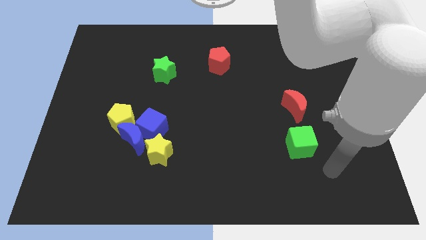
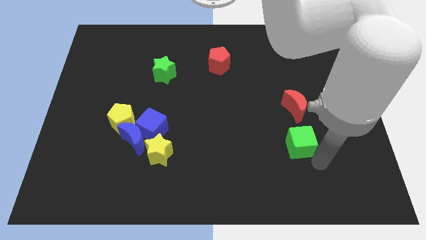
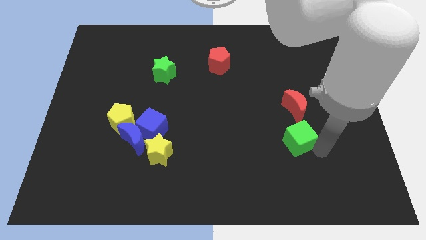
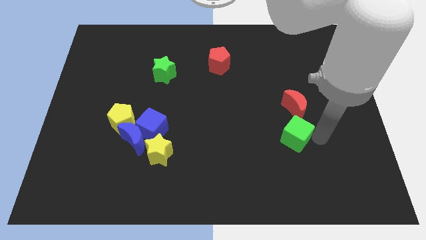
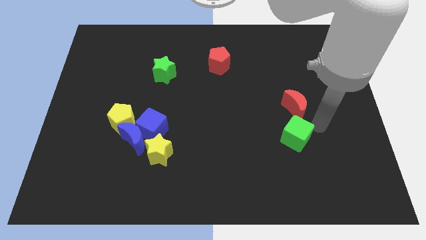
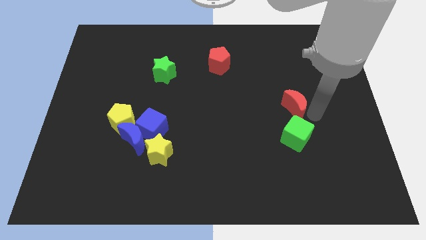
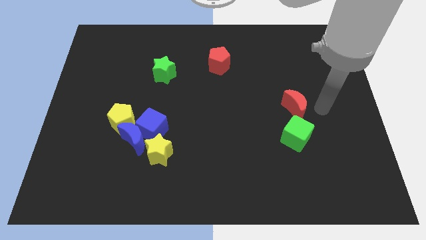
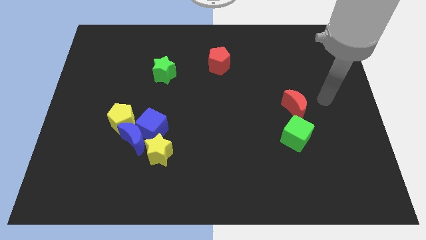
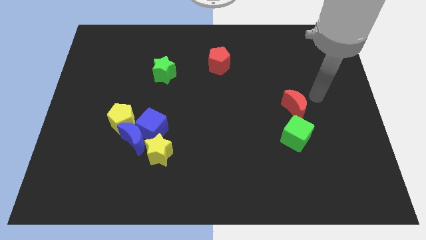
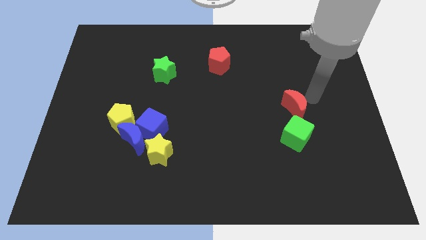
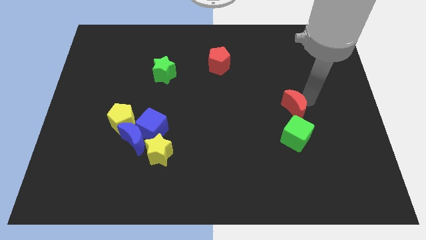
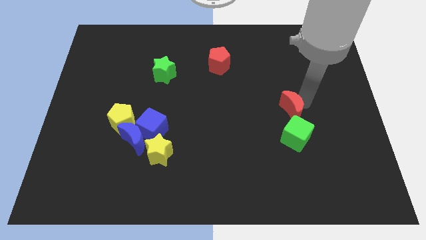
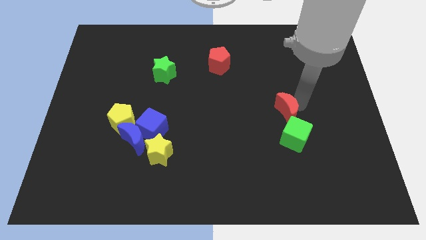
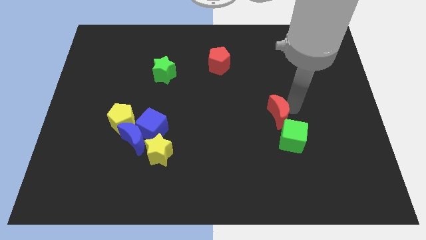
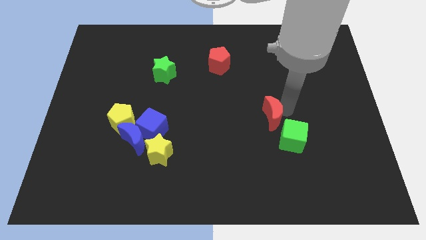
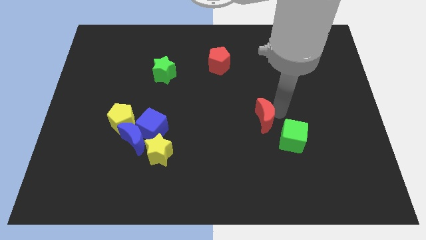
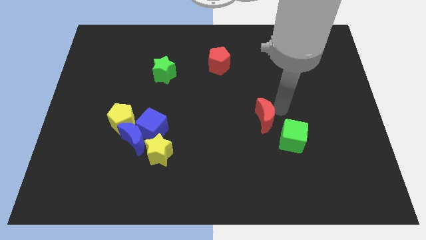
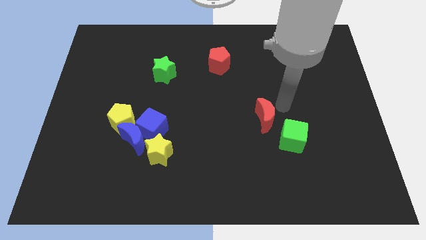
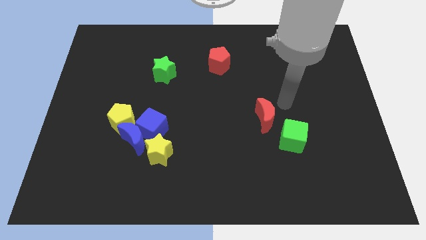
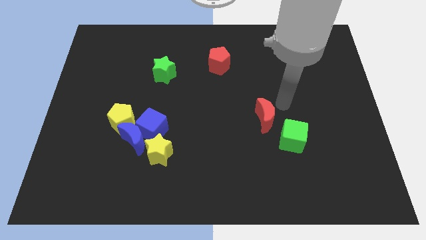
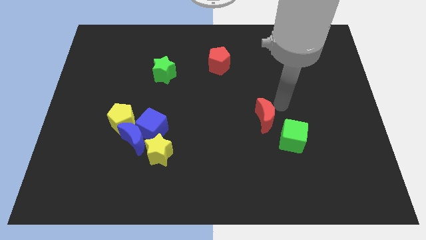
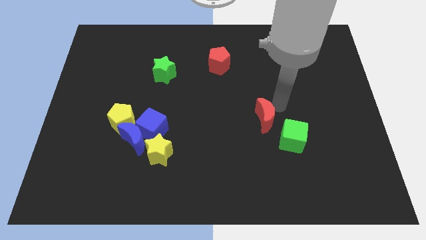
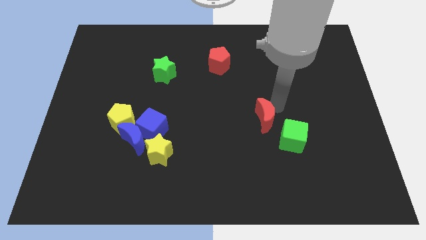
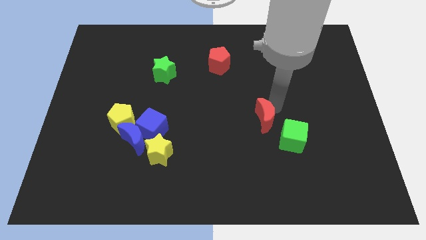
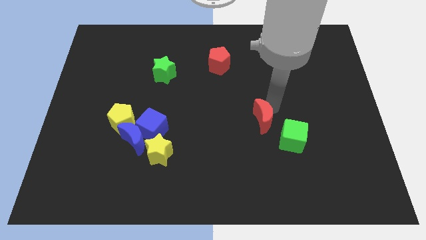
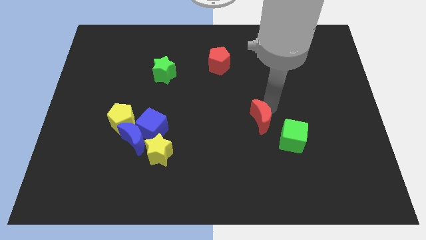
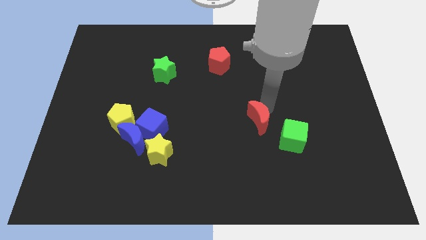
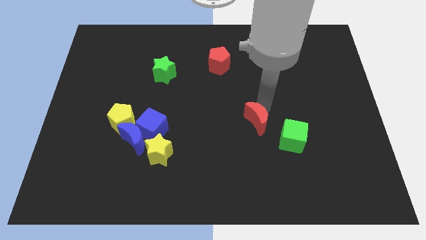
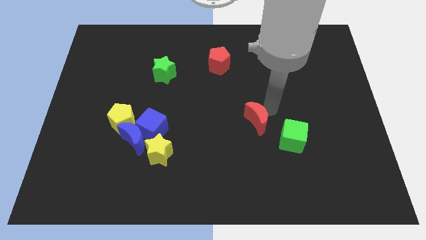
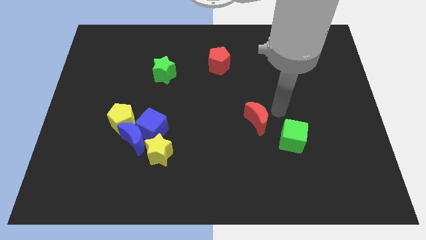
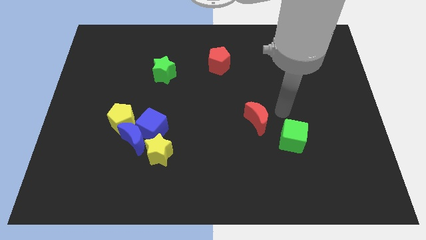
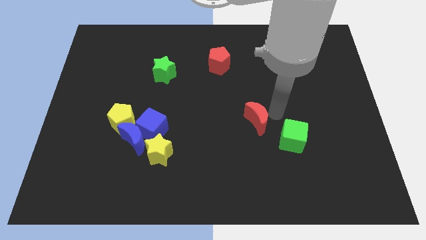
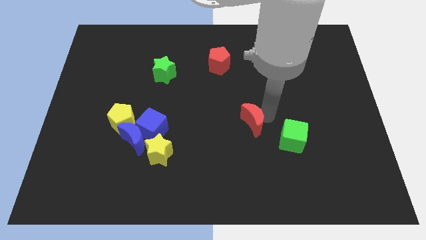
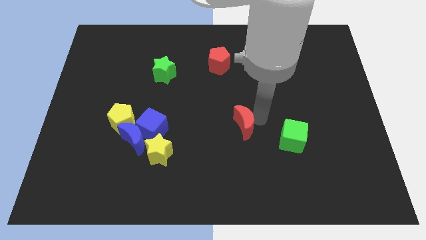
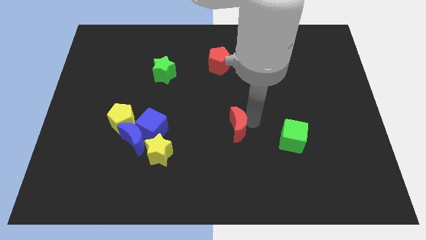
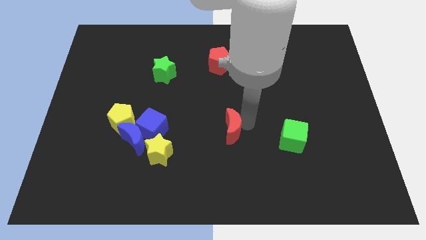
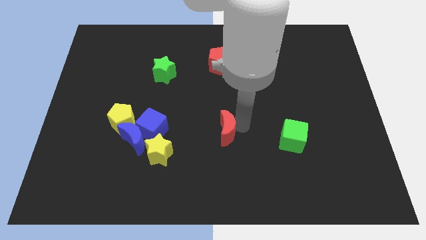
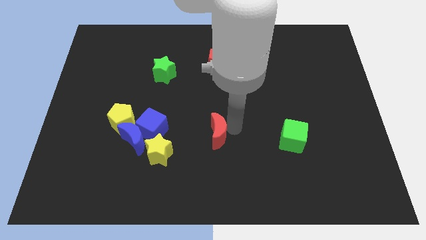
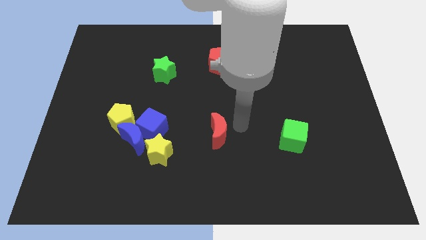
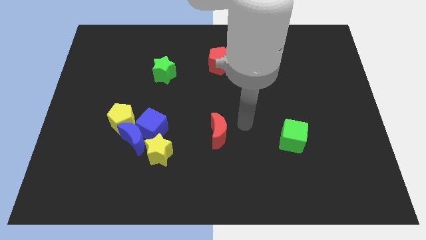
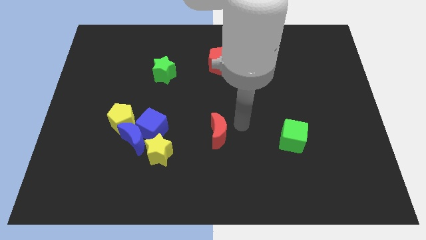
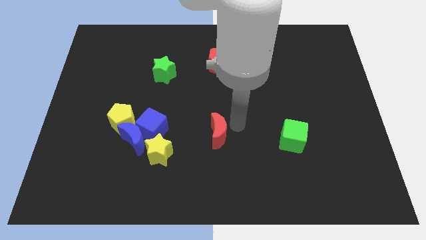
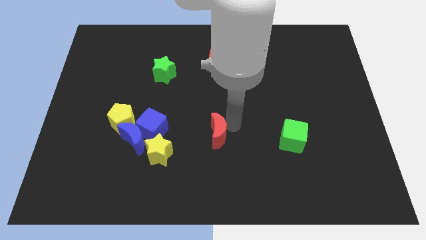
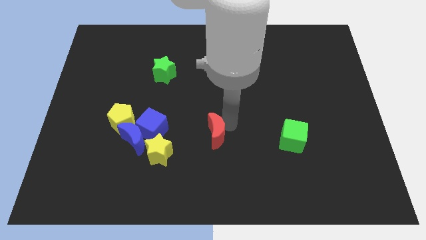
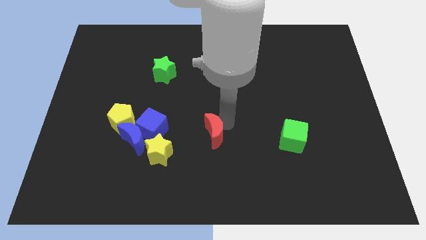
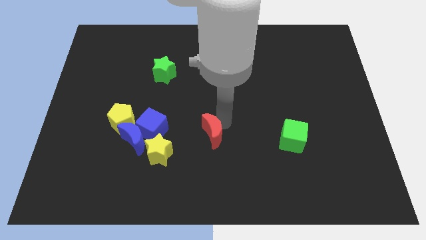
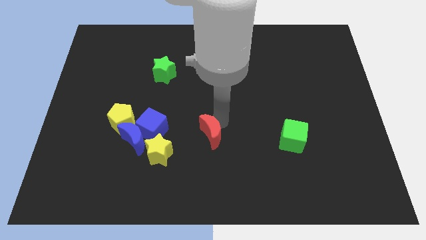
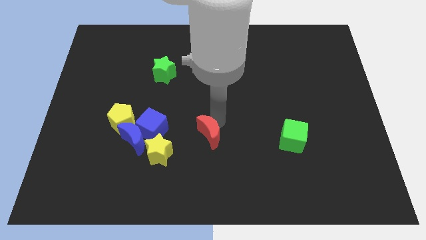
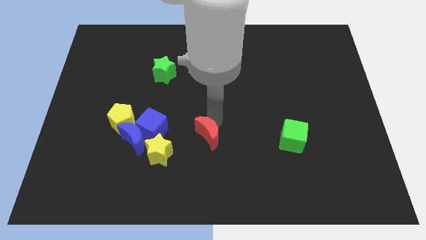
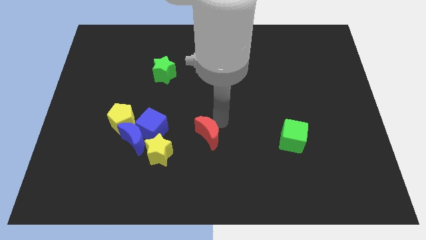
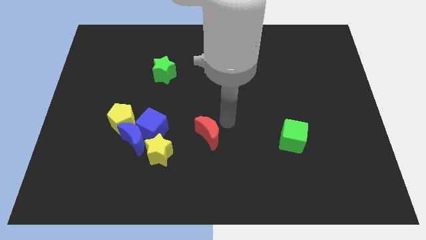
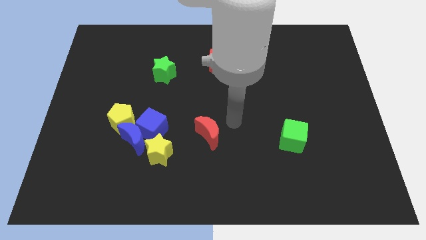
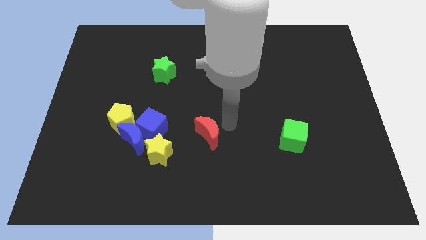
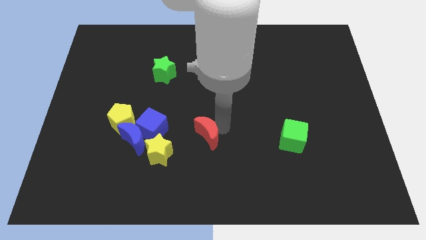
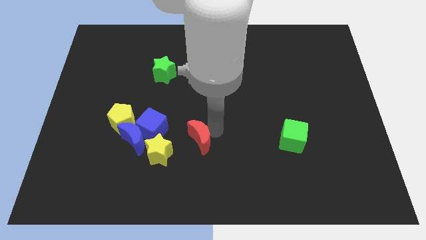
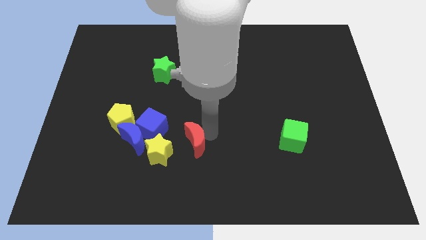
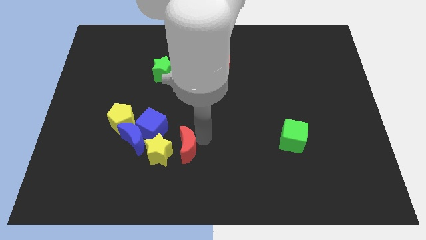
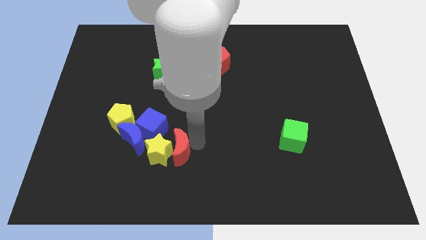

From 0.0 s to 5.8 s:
push the red moon to the yellow star

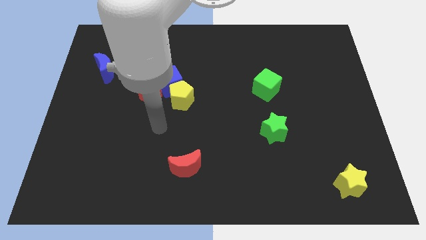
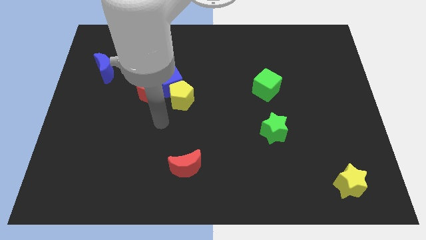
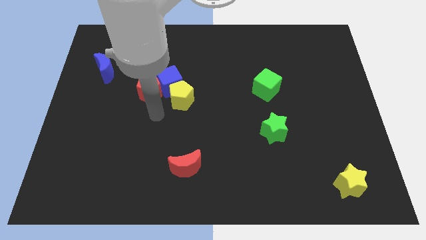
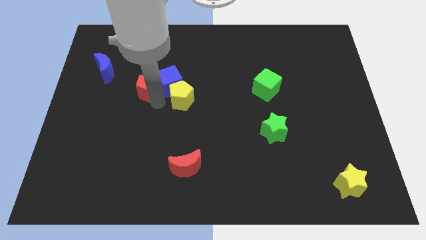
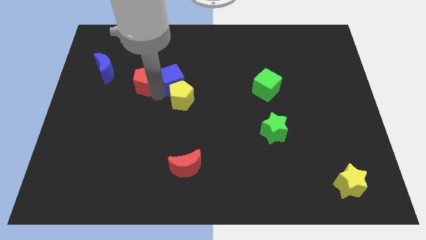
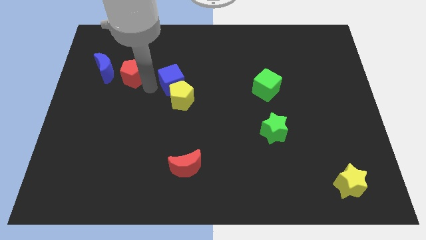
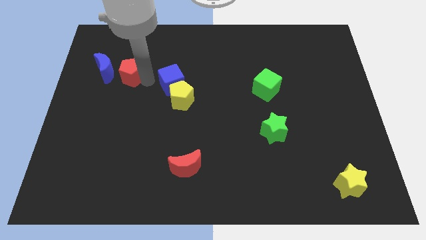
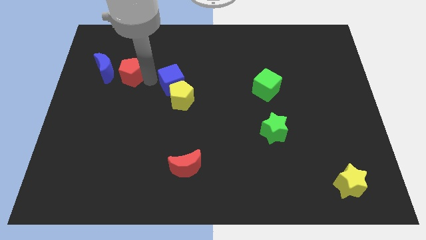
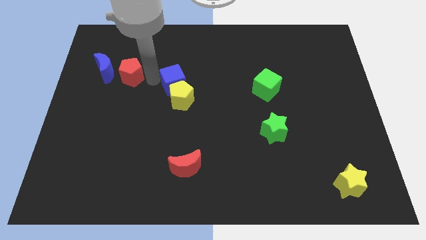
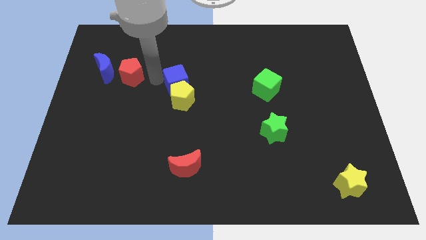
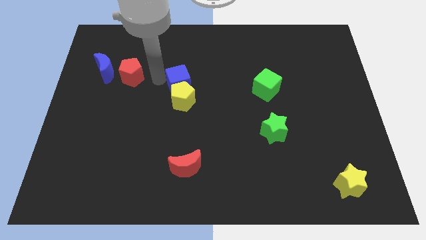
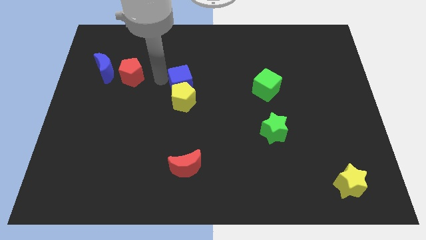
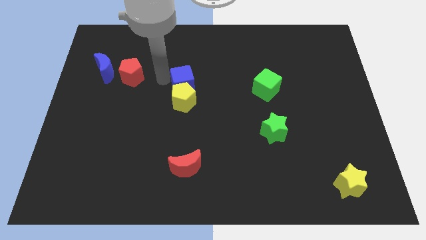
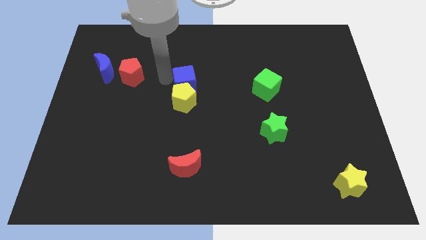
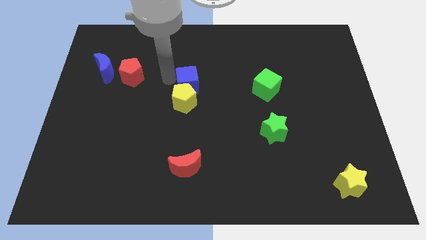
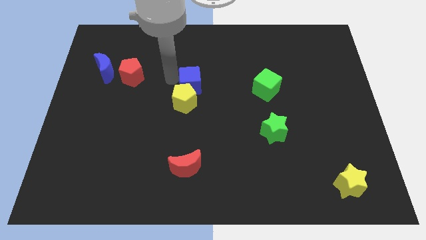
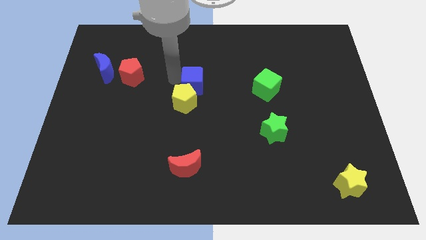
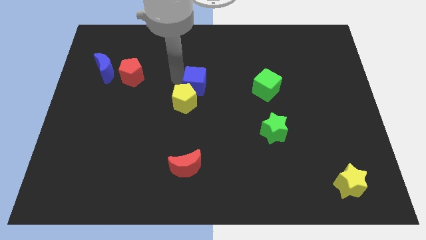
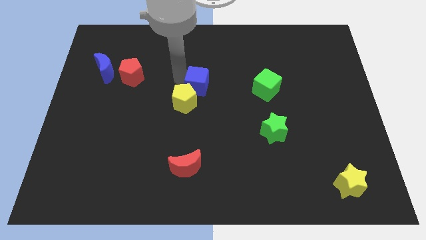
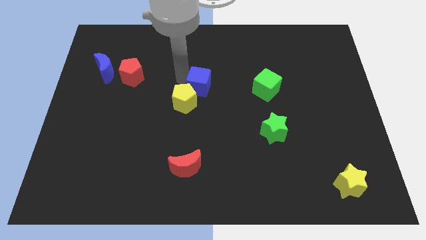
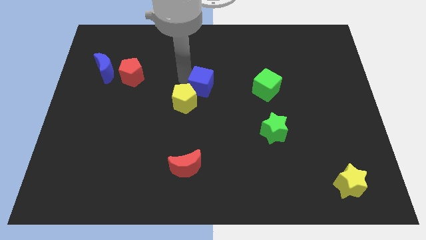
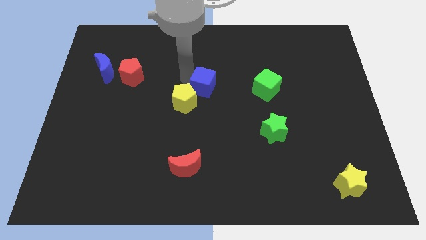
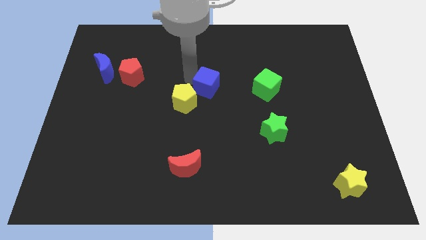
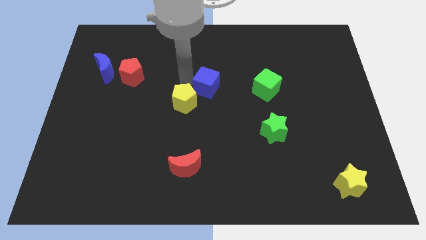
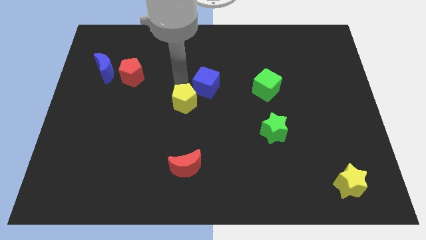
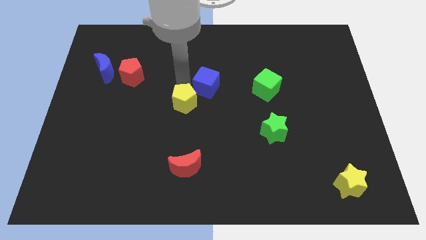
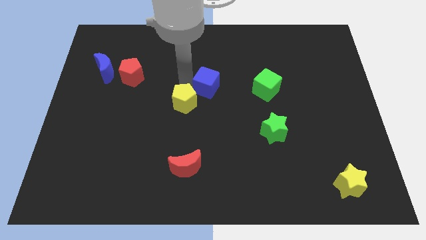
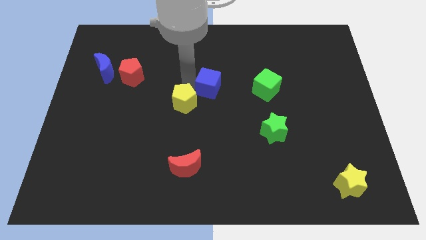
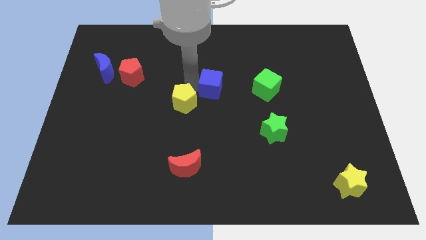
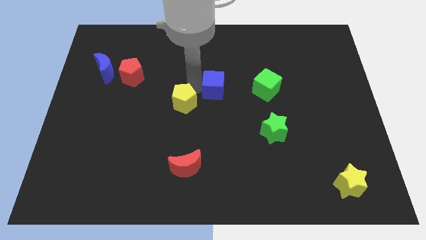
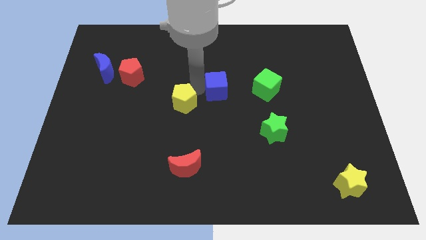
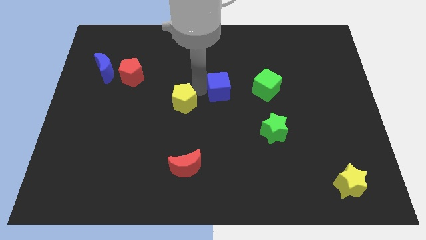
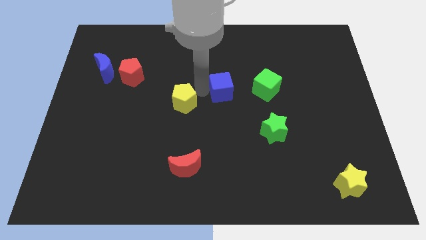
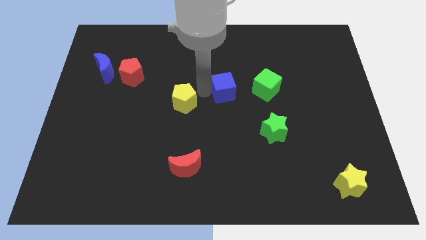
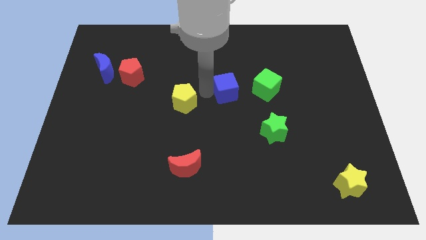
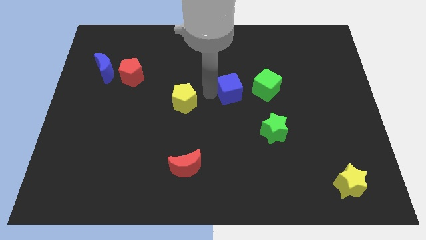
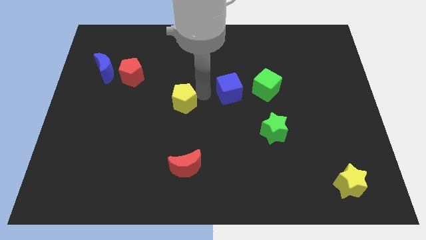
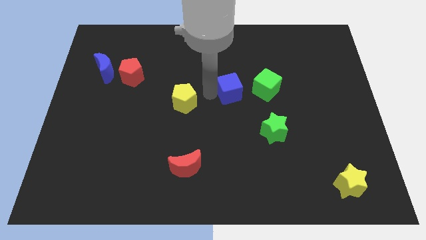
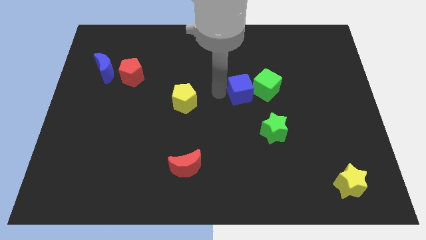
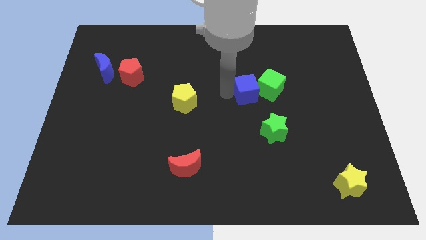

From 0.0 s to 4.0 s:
push the blue cube next to the green cube
